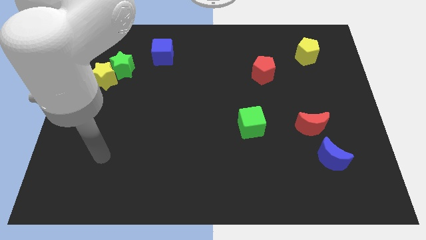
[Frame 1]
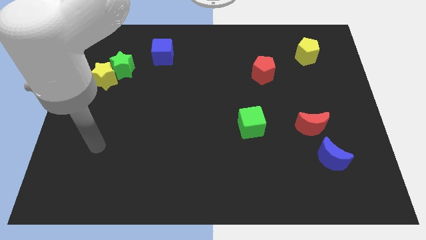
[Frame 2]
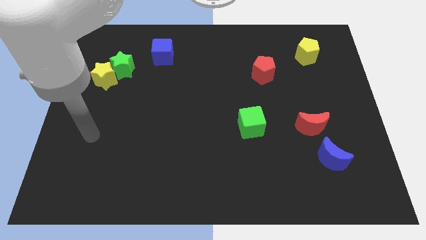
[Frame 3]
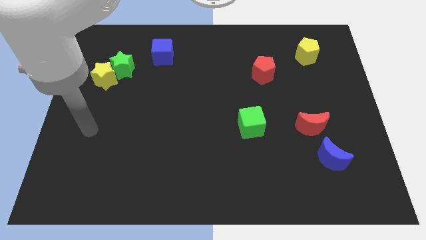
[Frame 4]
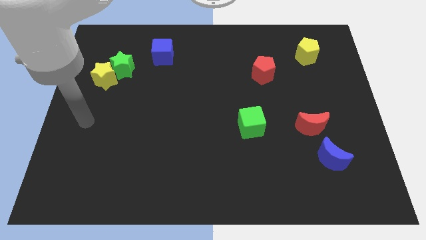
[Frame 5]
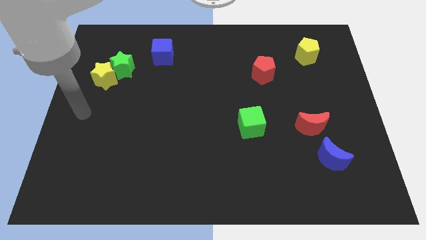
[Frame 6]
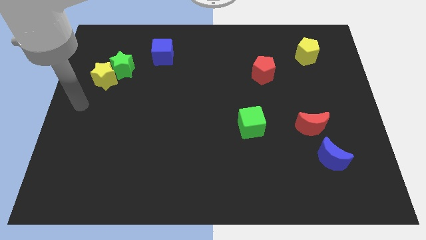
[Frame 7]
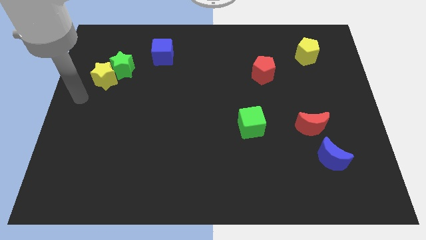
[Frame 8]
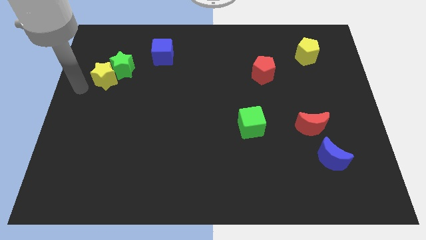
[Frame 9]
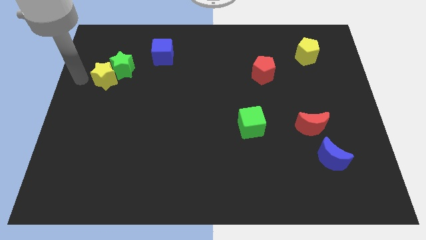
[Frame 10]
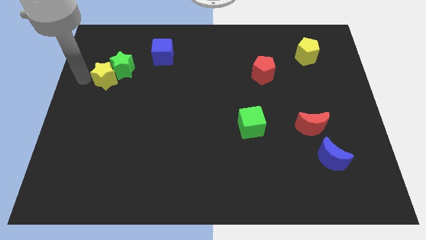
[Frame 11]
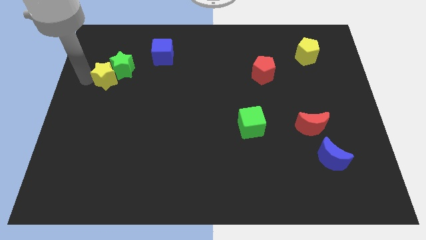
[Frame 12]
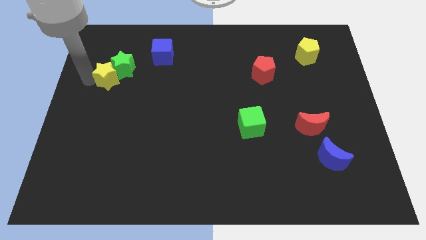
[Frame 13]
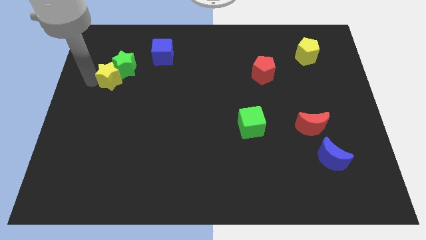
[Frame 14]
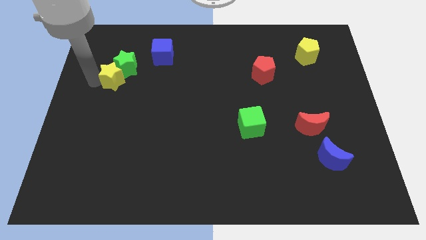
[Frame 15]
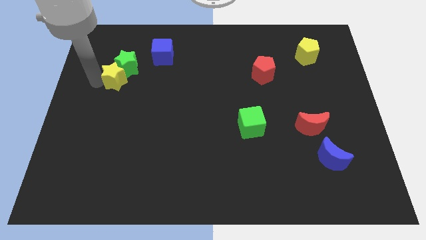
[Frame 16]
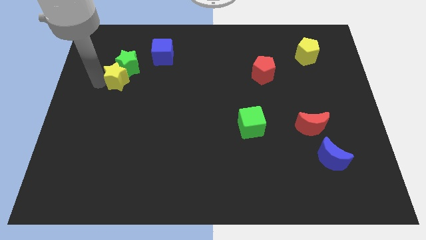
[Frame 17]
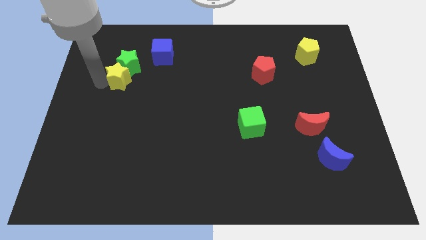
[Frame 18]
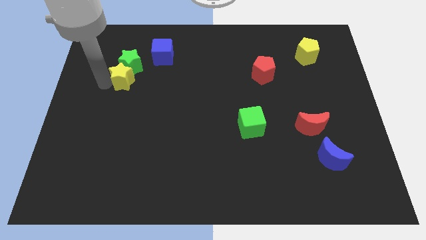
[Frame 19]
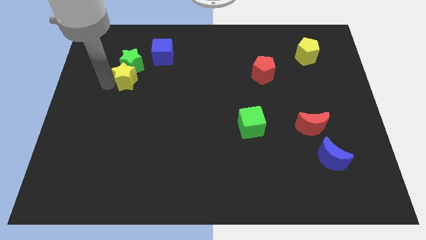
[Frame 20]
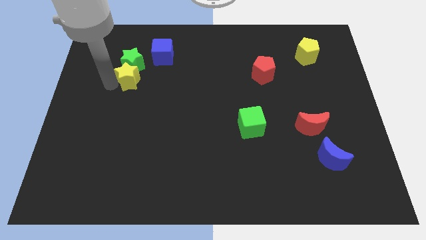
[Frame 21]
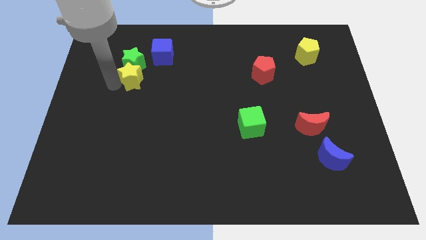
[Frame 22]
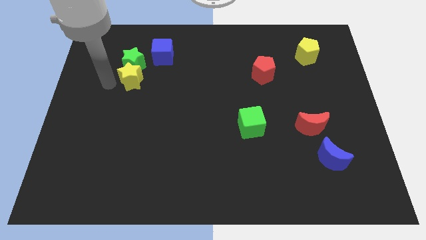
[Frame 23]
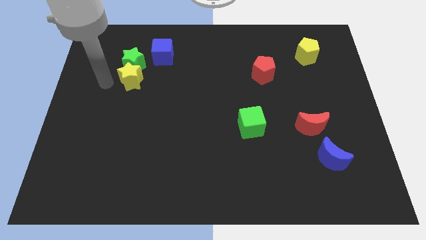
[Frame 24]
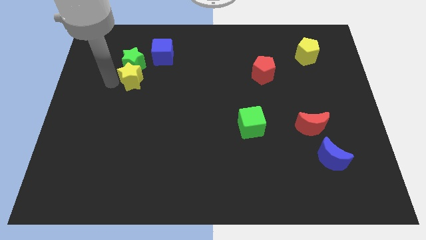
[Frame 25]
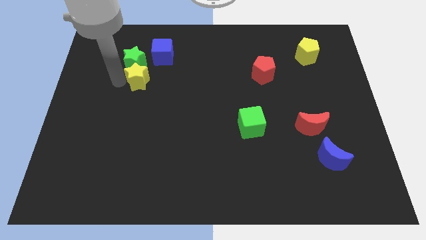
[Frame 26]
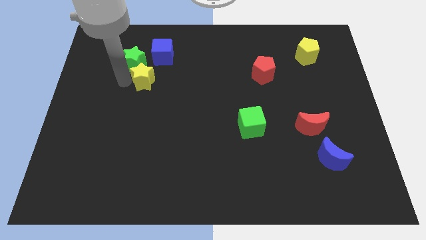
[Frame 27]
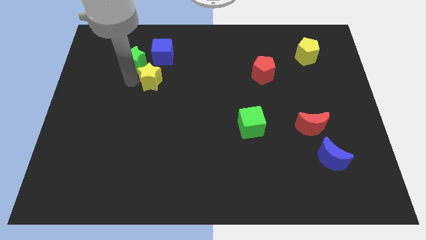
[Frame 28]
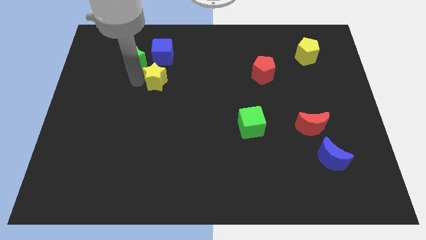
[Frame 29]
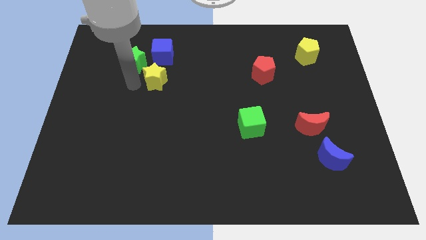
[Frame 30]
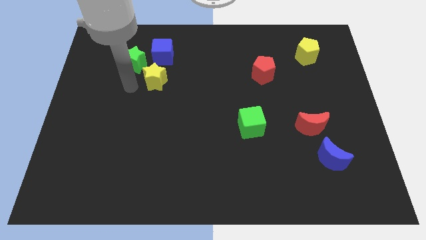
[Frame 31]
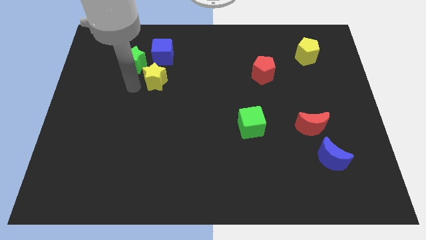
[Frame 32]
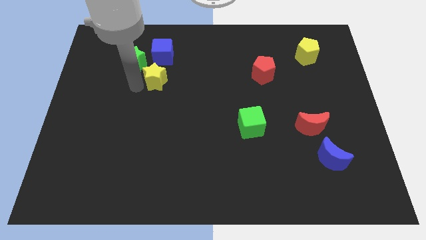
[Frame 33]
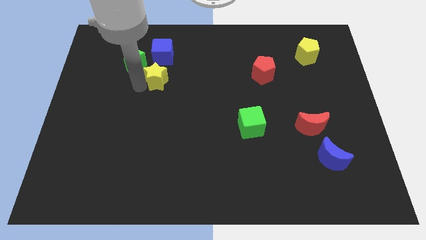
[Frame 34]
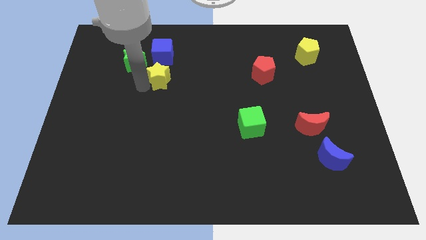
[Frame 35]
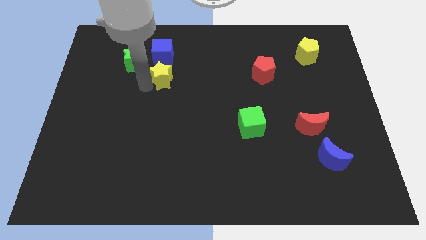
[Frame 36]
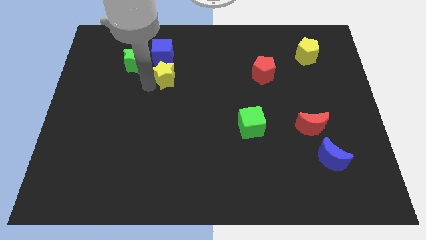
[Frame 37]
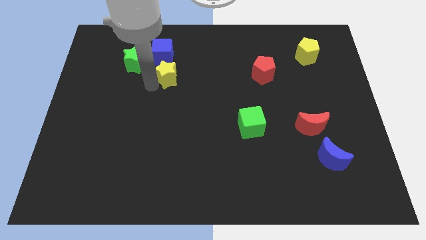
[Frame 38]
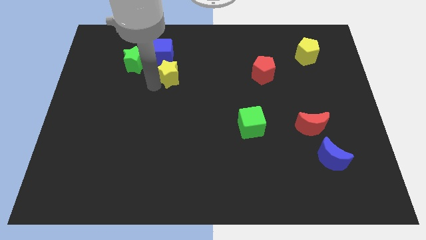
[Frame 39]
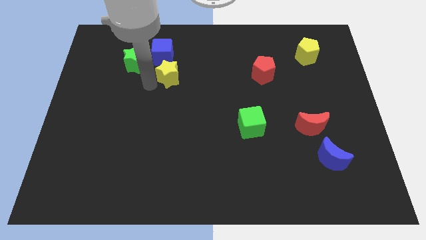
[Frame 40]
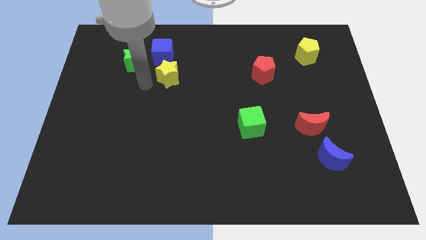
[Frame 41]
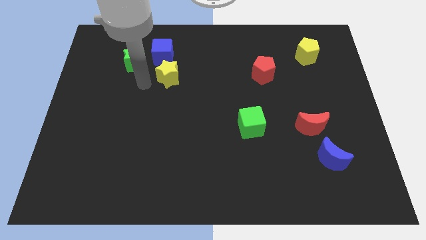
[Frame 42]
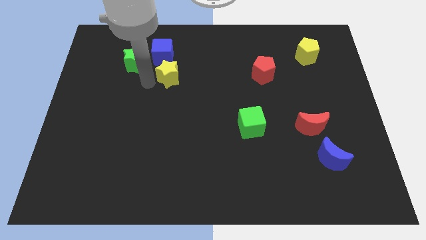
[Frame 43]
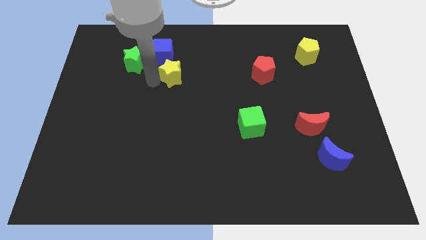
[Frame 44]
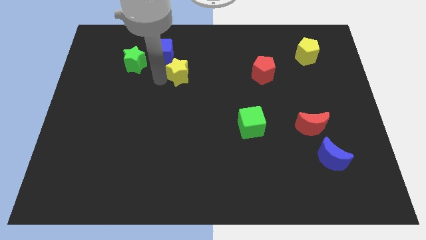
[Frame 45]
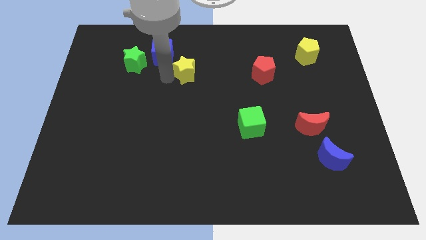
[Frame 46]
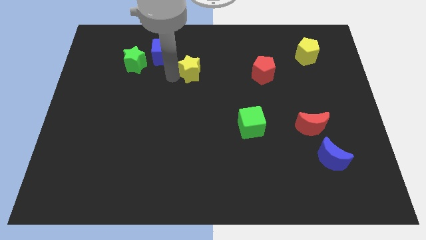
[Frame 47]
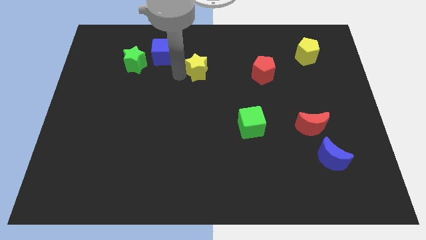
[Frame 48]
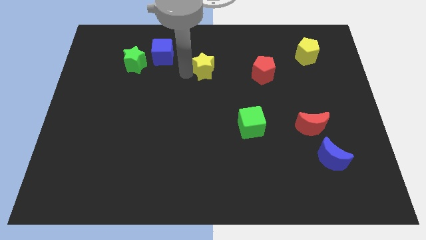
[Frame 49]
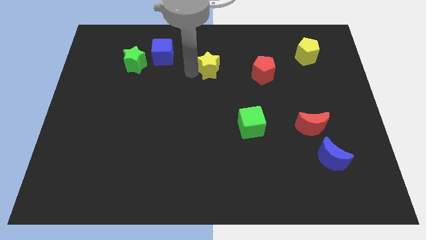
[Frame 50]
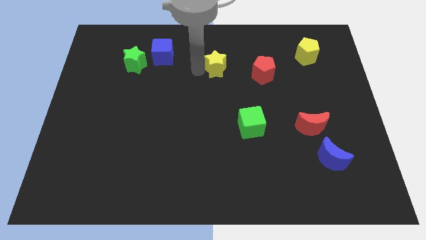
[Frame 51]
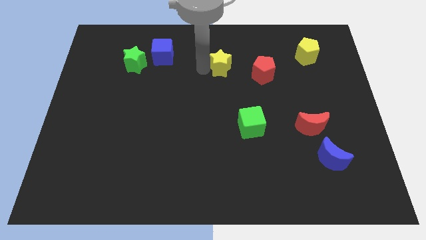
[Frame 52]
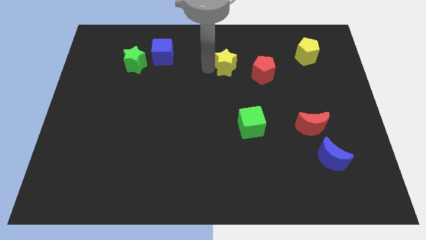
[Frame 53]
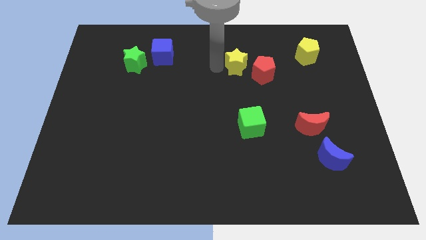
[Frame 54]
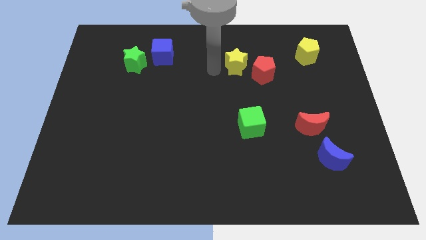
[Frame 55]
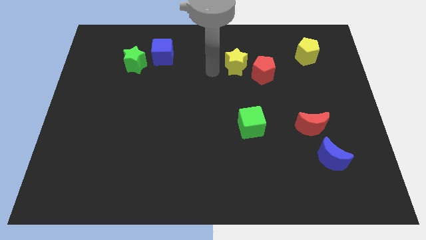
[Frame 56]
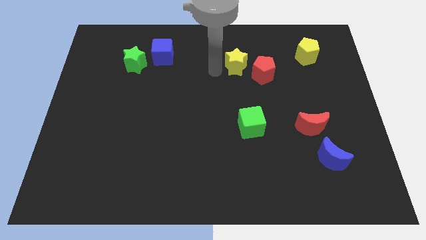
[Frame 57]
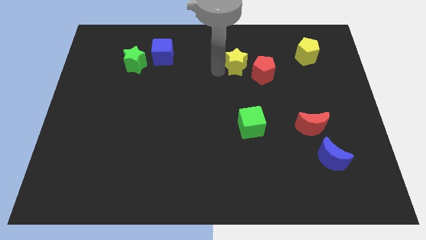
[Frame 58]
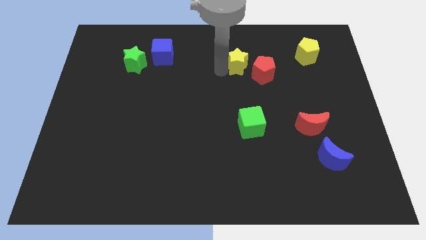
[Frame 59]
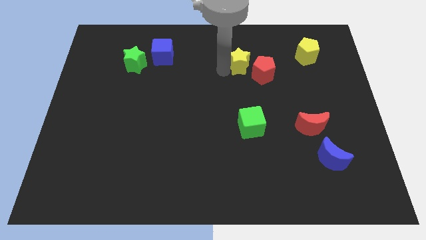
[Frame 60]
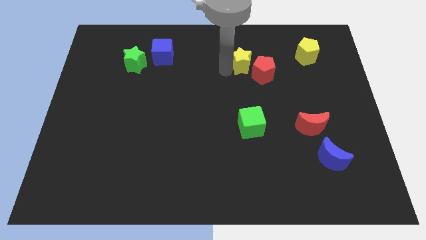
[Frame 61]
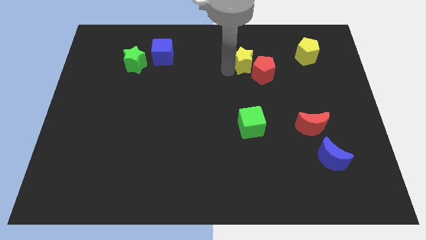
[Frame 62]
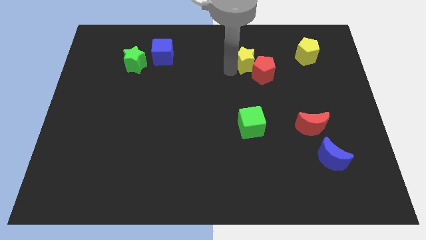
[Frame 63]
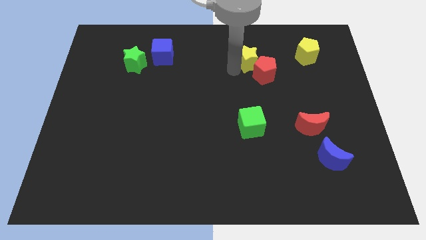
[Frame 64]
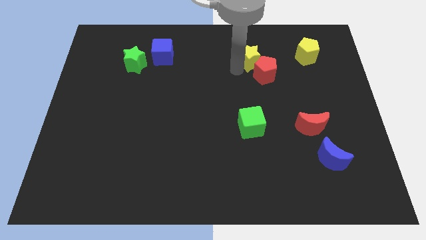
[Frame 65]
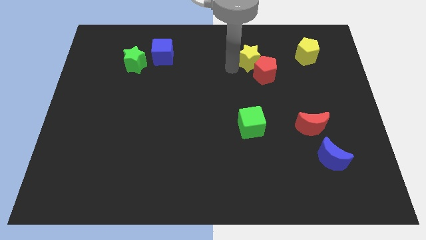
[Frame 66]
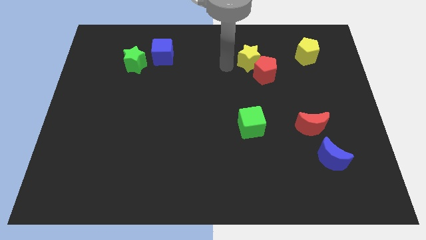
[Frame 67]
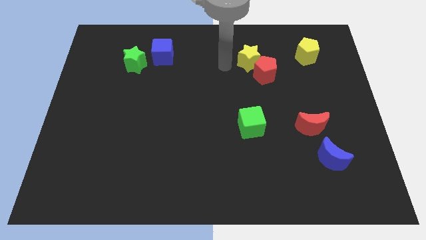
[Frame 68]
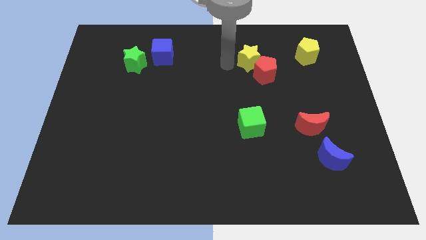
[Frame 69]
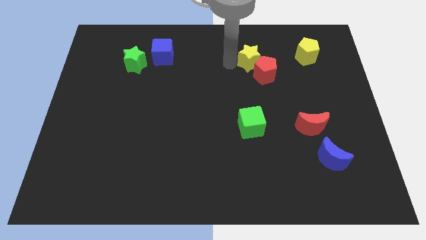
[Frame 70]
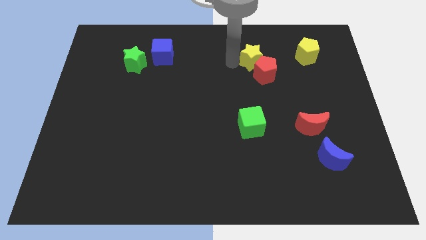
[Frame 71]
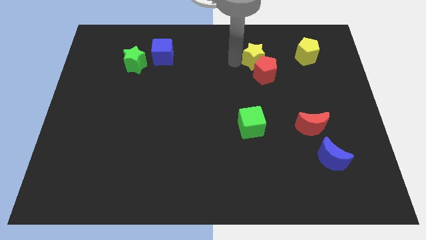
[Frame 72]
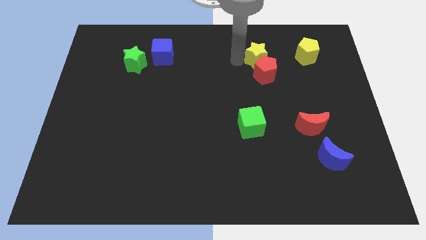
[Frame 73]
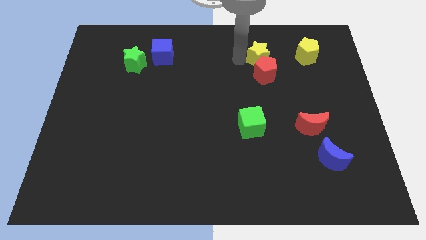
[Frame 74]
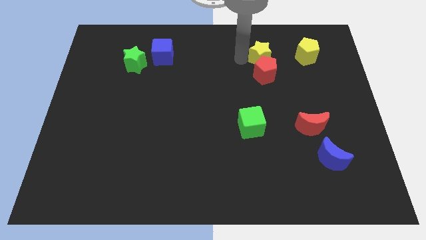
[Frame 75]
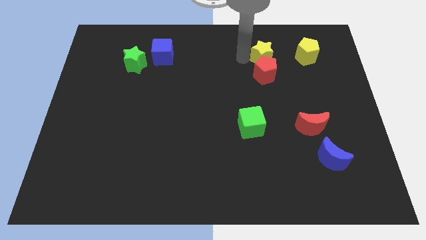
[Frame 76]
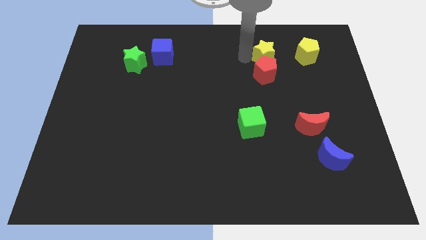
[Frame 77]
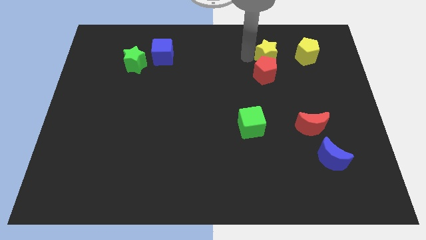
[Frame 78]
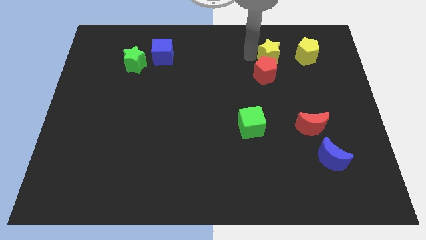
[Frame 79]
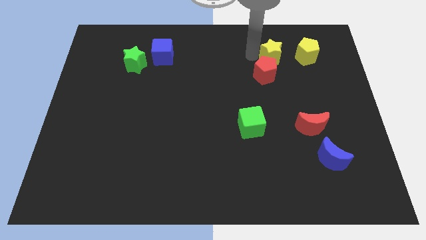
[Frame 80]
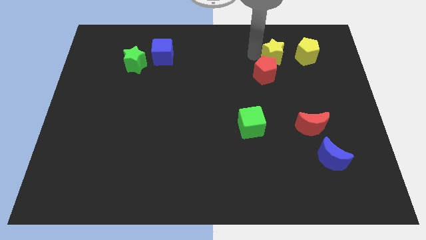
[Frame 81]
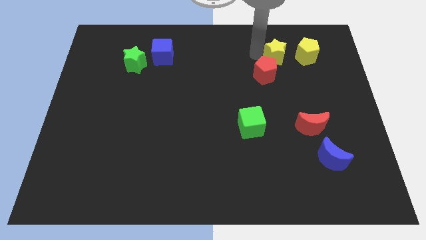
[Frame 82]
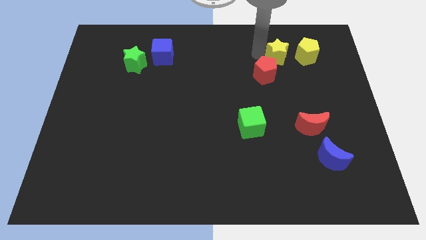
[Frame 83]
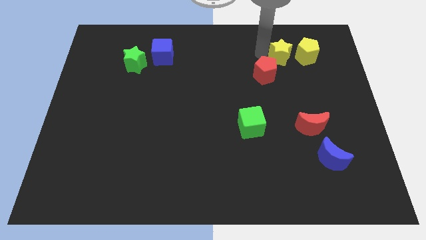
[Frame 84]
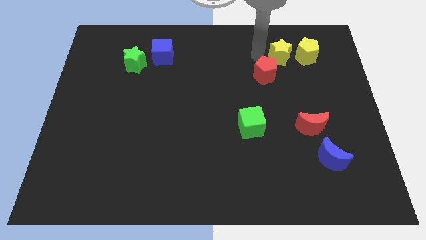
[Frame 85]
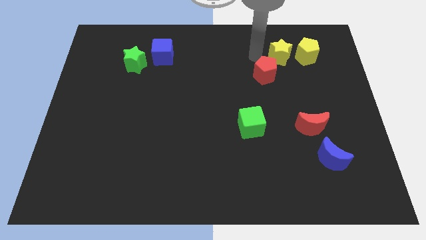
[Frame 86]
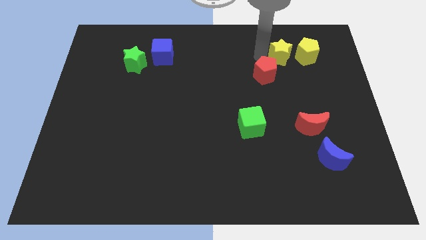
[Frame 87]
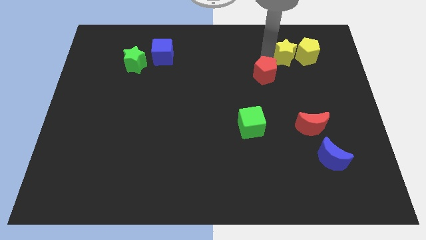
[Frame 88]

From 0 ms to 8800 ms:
push the yellow star to the yellow pentagon
